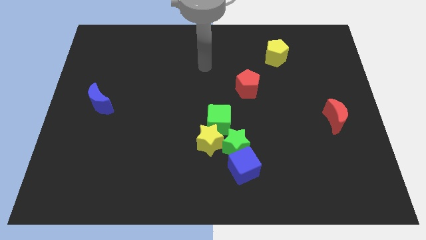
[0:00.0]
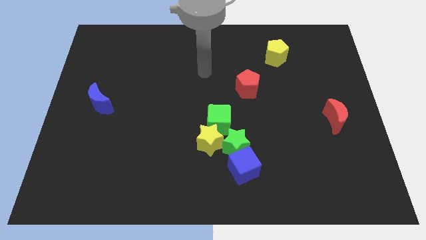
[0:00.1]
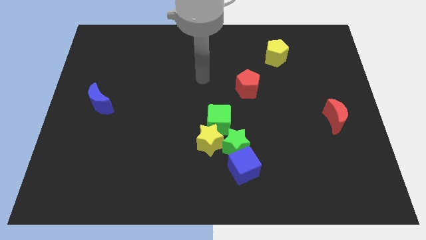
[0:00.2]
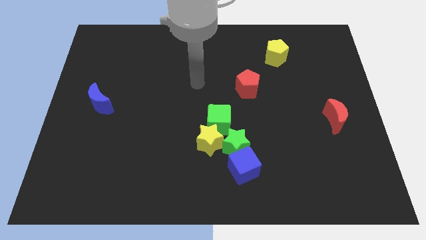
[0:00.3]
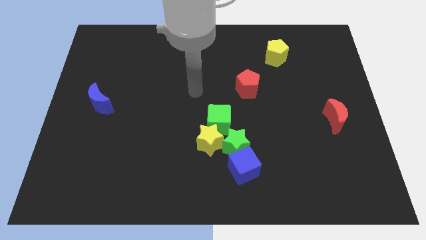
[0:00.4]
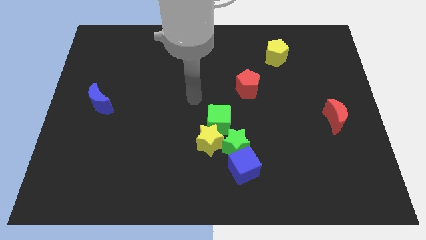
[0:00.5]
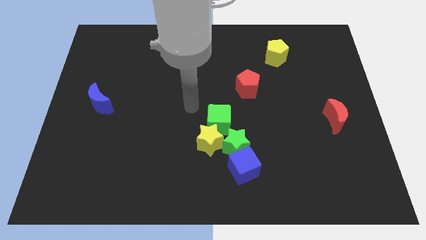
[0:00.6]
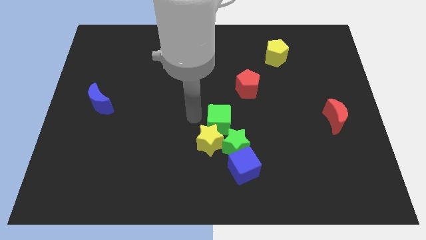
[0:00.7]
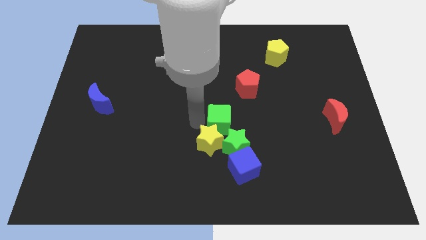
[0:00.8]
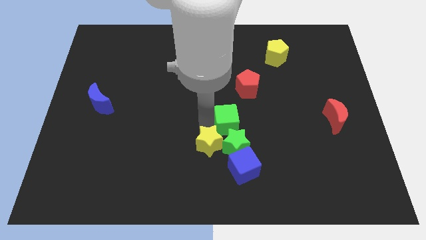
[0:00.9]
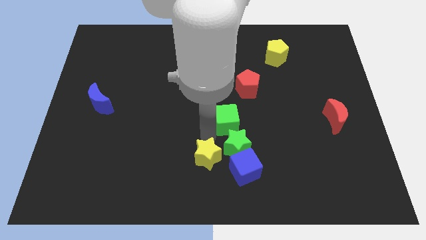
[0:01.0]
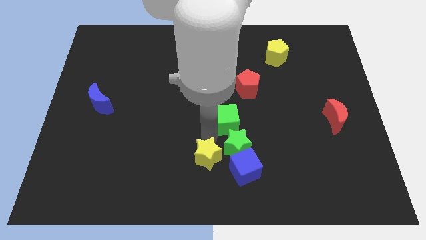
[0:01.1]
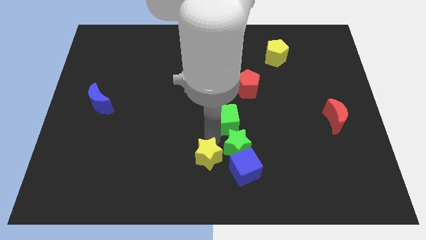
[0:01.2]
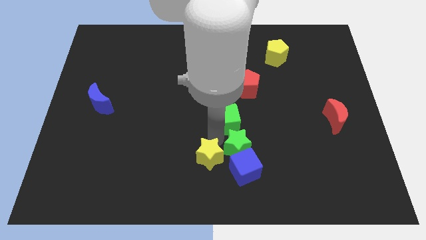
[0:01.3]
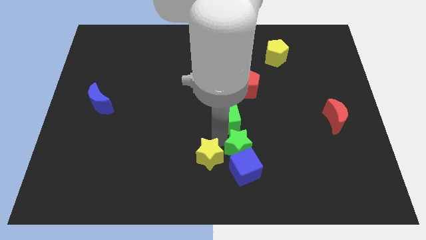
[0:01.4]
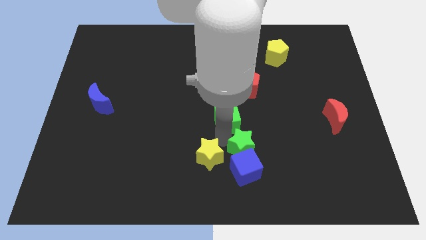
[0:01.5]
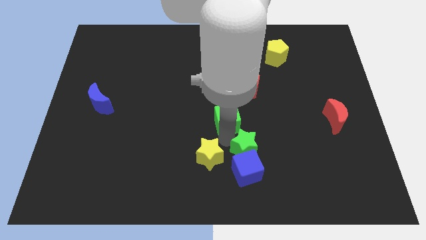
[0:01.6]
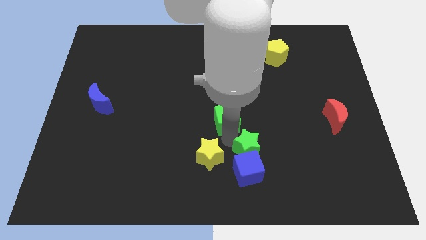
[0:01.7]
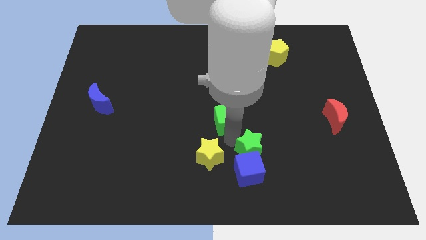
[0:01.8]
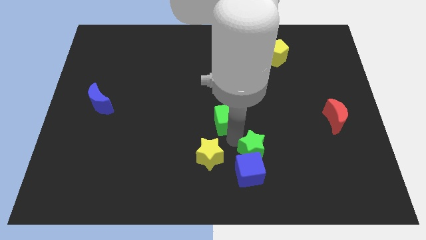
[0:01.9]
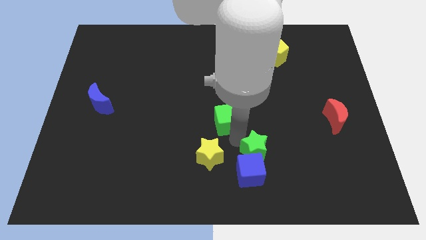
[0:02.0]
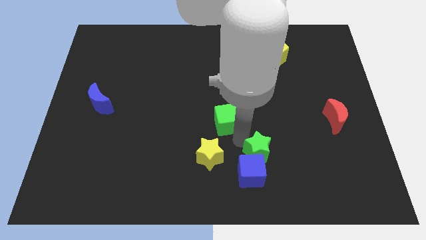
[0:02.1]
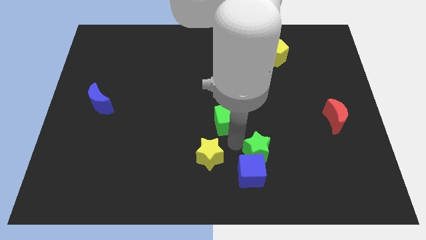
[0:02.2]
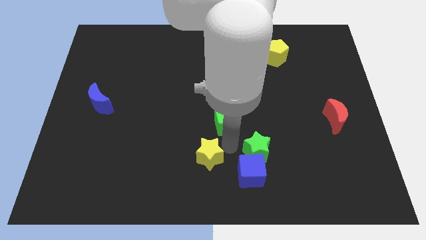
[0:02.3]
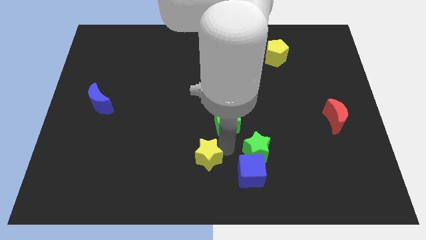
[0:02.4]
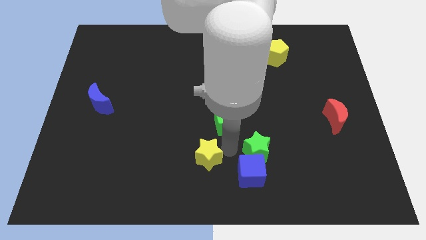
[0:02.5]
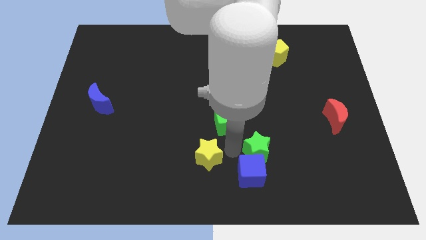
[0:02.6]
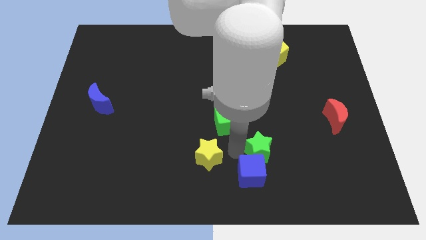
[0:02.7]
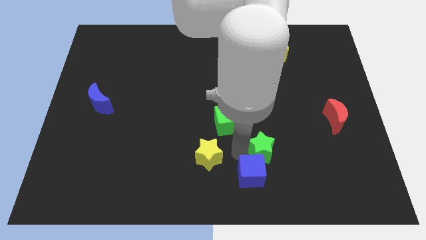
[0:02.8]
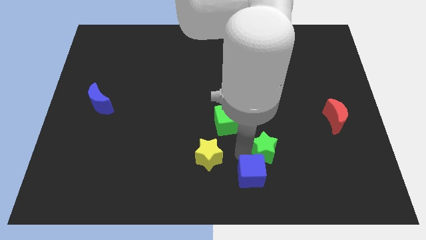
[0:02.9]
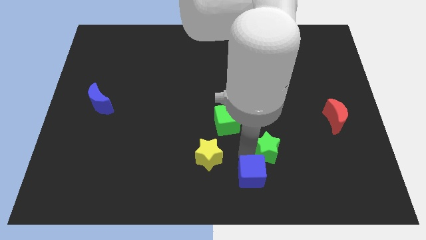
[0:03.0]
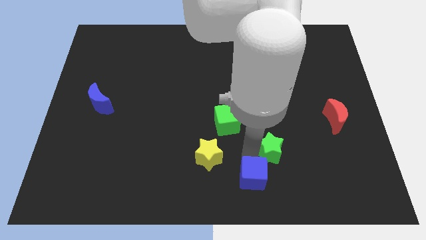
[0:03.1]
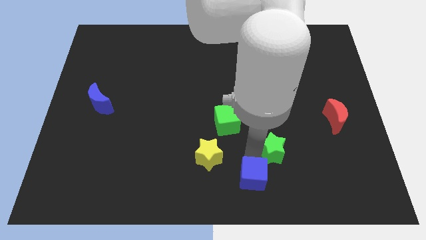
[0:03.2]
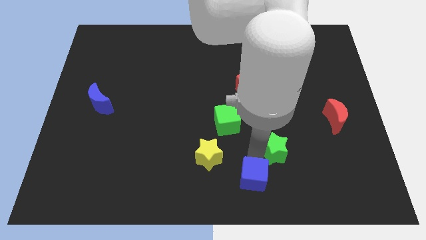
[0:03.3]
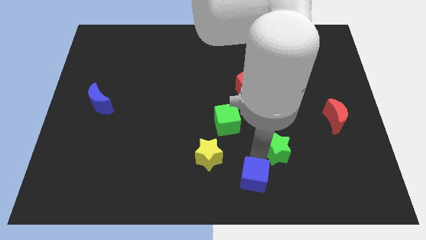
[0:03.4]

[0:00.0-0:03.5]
move the green star away from the group of blocks

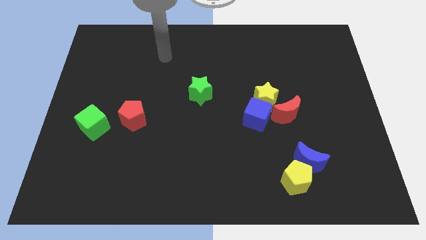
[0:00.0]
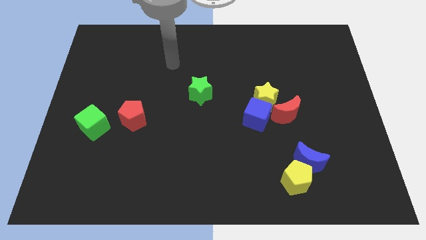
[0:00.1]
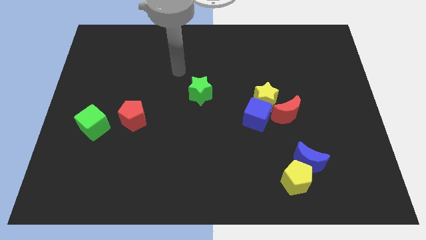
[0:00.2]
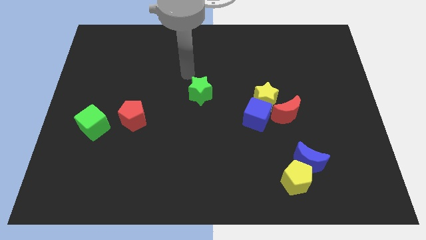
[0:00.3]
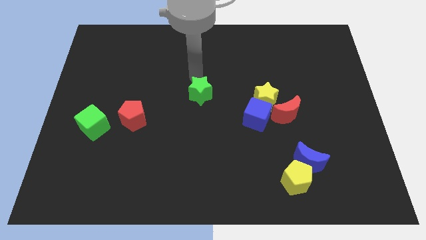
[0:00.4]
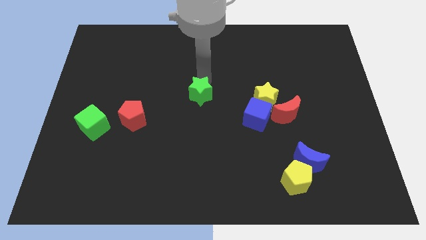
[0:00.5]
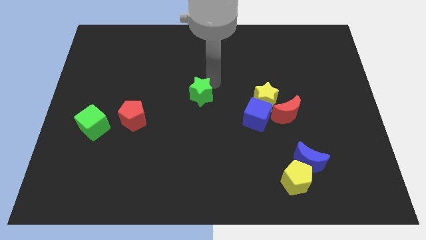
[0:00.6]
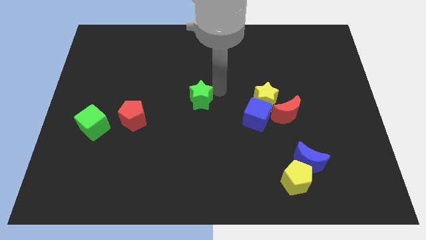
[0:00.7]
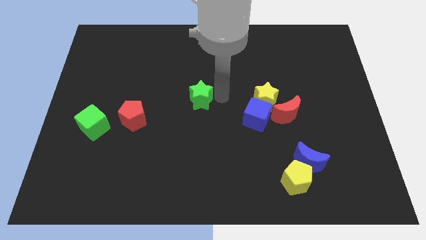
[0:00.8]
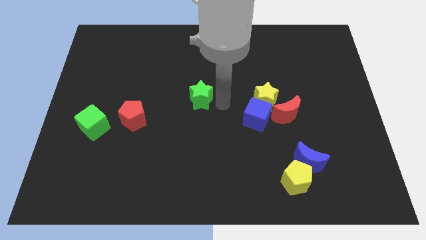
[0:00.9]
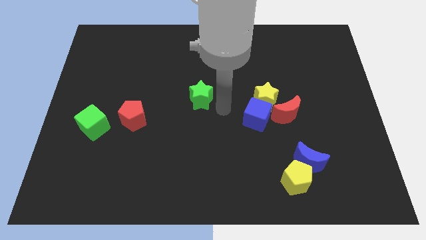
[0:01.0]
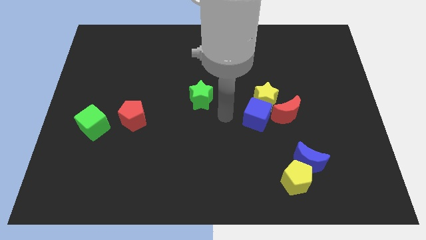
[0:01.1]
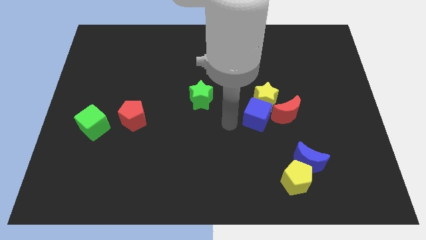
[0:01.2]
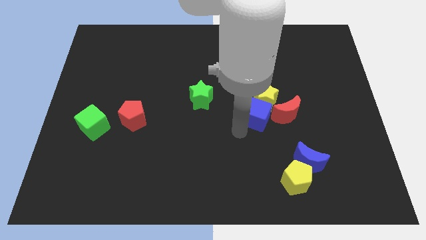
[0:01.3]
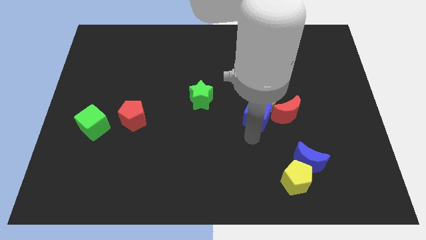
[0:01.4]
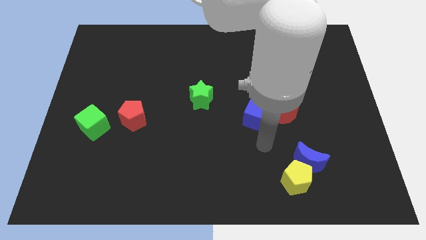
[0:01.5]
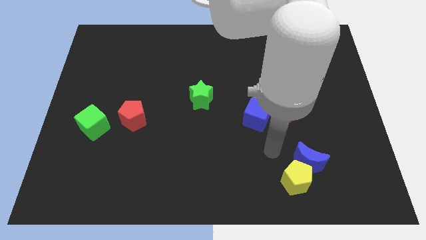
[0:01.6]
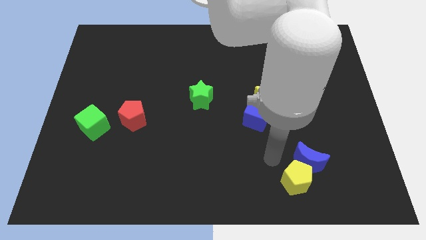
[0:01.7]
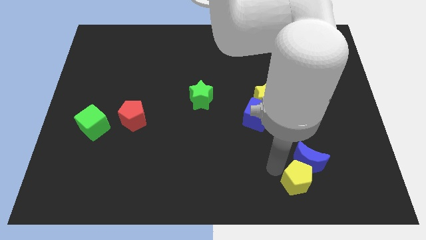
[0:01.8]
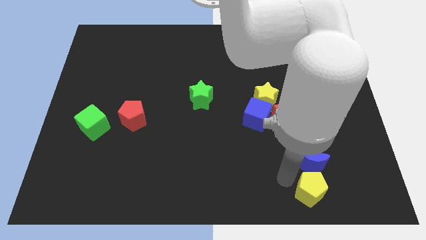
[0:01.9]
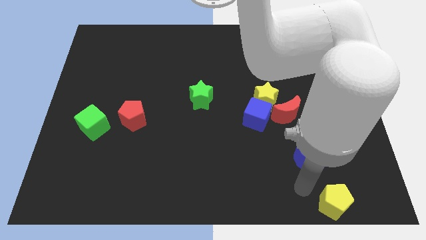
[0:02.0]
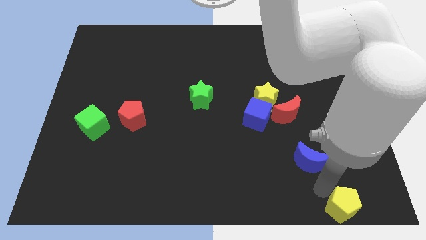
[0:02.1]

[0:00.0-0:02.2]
separate the blue moon from the yellow pentagon

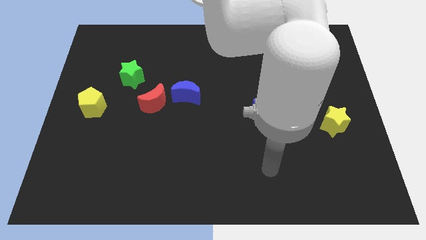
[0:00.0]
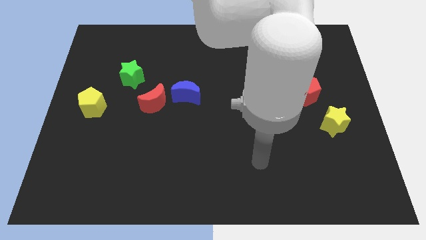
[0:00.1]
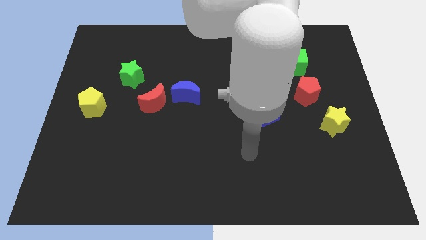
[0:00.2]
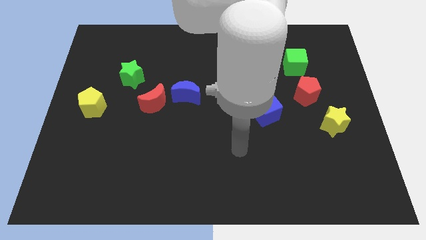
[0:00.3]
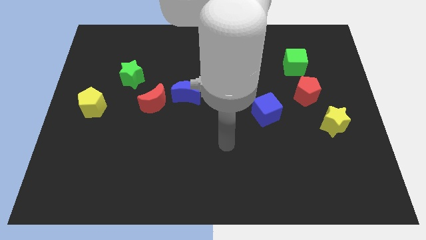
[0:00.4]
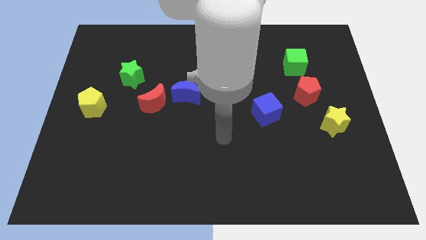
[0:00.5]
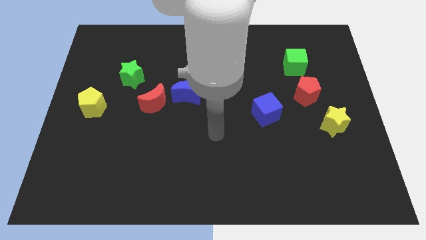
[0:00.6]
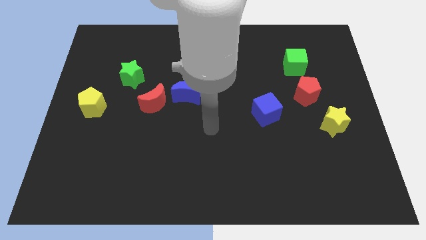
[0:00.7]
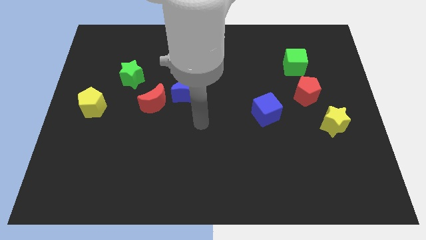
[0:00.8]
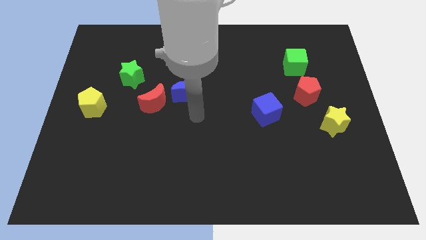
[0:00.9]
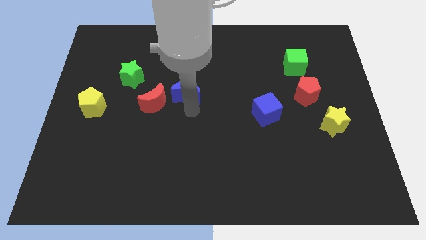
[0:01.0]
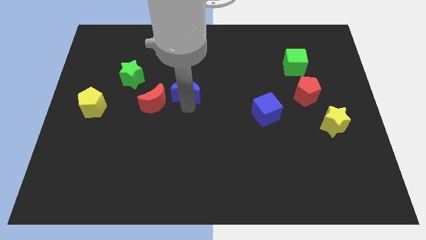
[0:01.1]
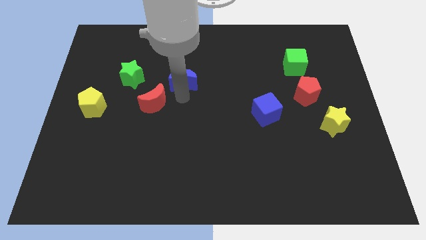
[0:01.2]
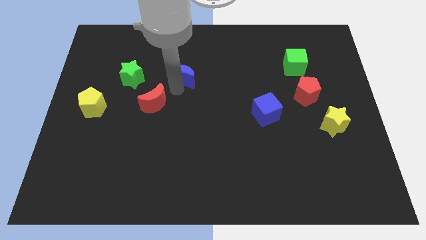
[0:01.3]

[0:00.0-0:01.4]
separate the red moon from the blue moon

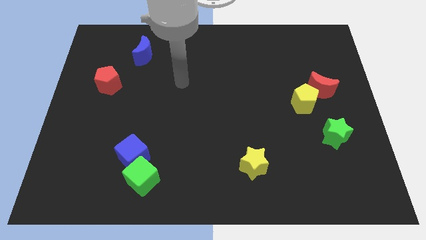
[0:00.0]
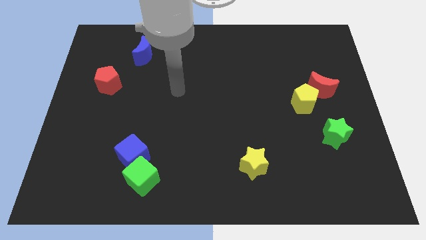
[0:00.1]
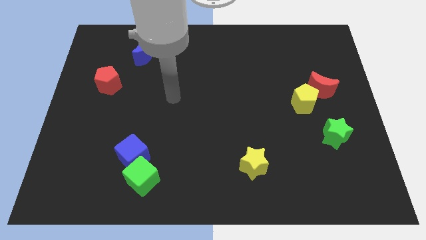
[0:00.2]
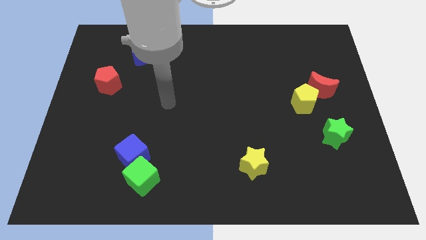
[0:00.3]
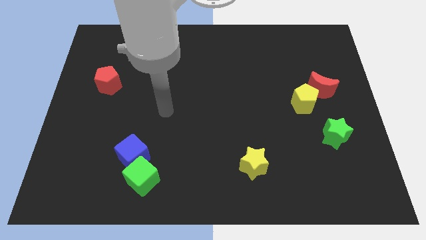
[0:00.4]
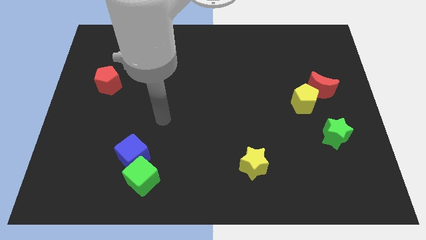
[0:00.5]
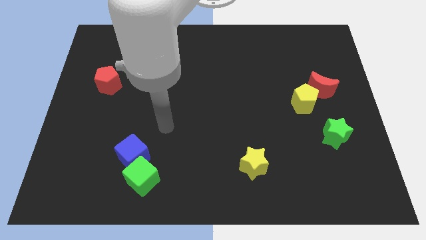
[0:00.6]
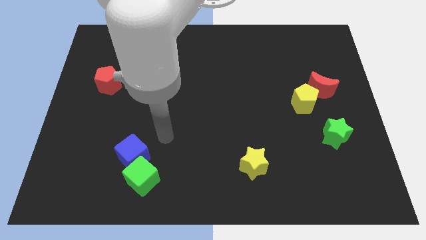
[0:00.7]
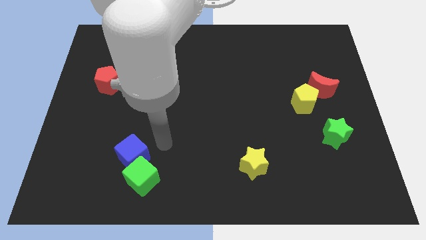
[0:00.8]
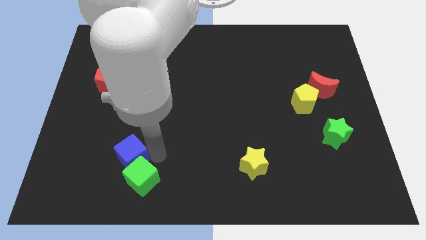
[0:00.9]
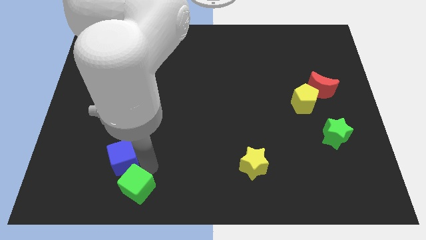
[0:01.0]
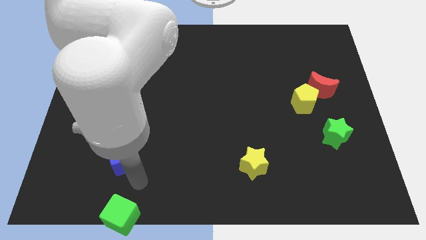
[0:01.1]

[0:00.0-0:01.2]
move the blue cube away from the green cube

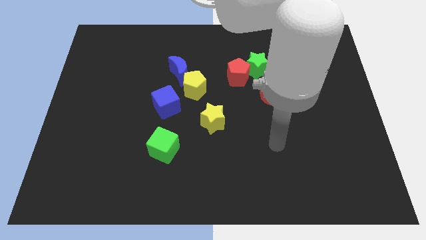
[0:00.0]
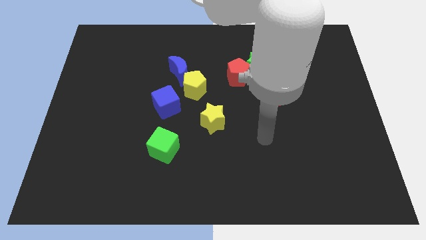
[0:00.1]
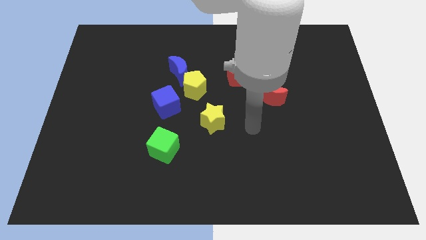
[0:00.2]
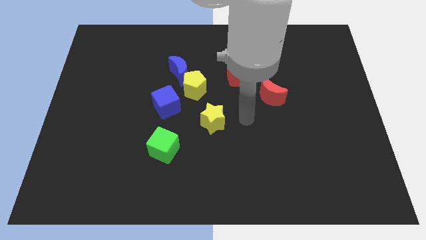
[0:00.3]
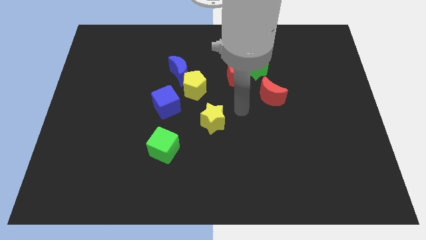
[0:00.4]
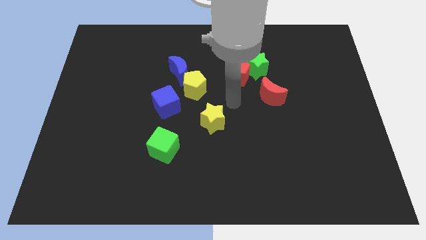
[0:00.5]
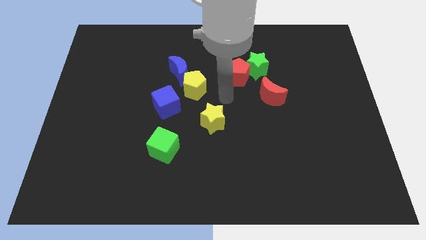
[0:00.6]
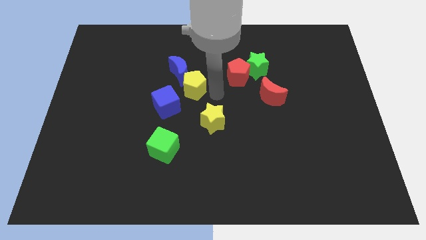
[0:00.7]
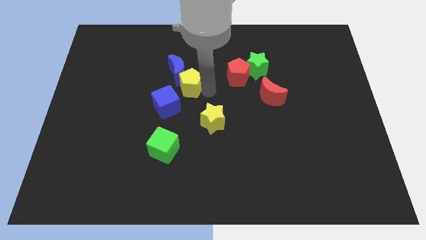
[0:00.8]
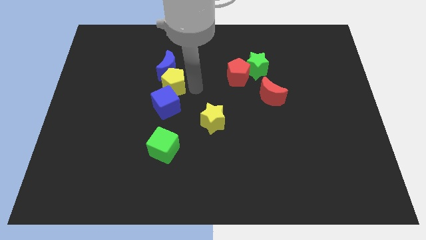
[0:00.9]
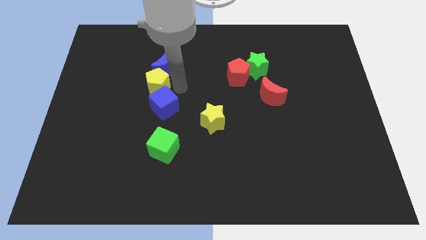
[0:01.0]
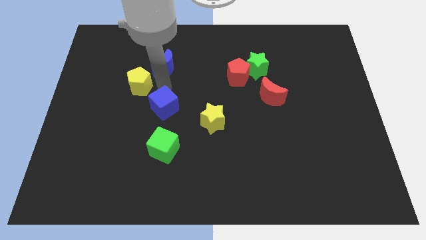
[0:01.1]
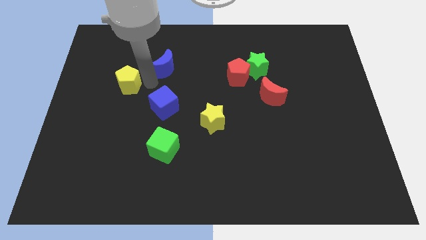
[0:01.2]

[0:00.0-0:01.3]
move the blue moon away from the yellow pentagon
